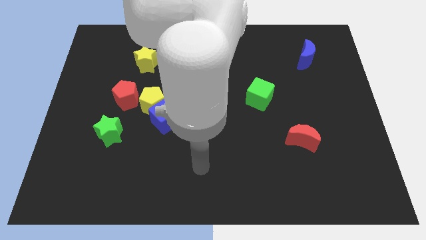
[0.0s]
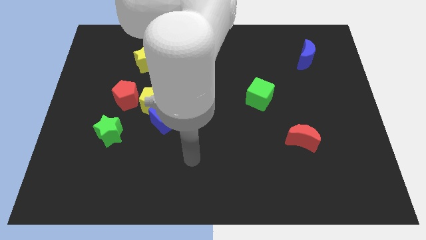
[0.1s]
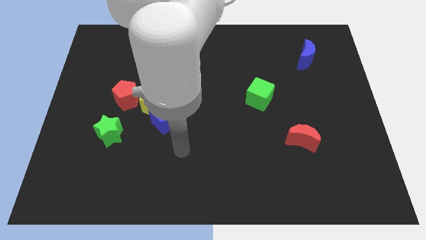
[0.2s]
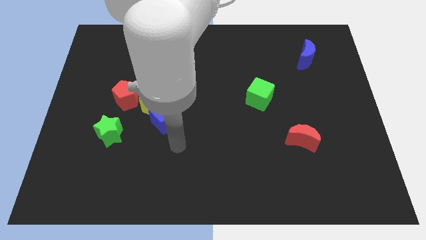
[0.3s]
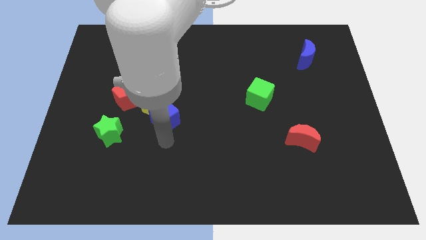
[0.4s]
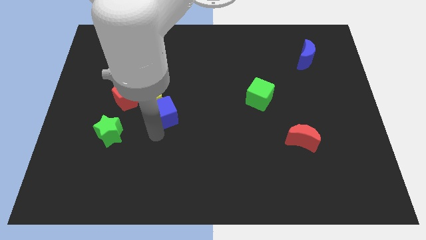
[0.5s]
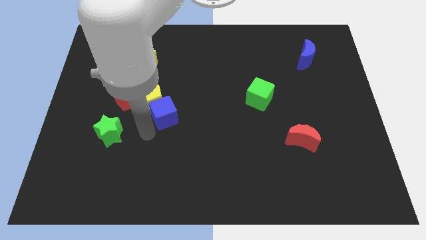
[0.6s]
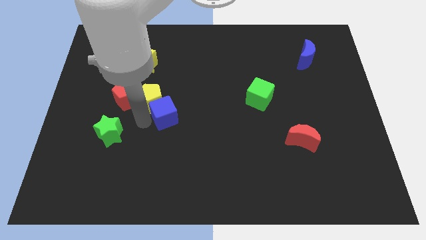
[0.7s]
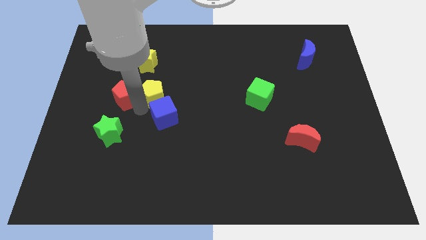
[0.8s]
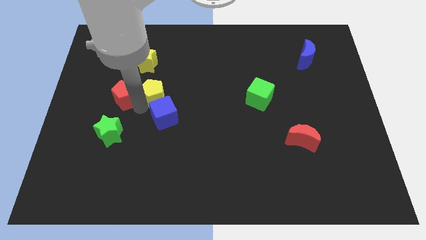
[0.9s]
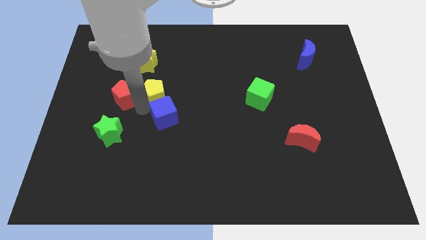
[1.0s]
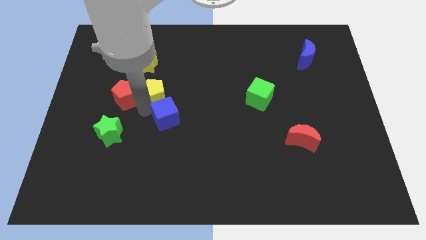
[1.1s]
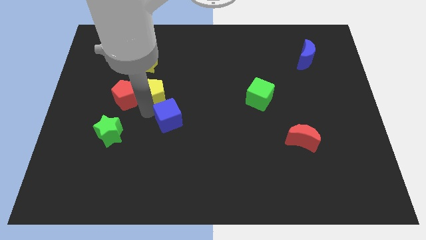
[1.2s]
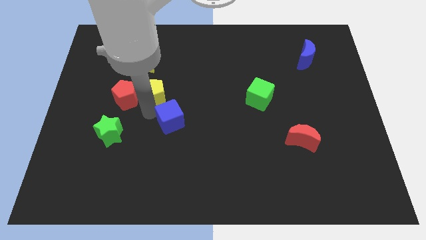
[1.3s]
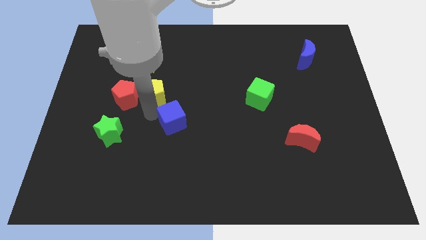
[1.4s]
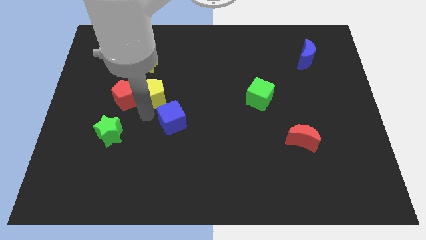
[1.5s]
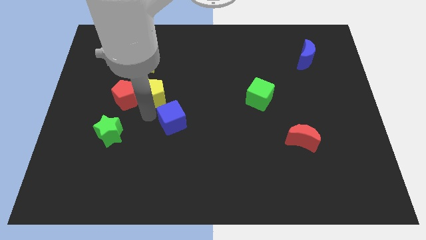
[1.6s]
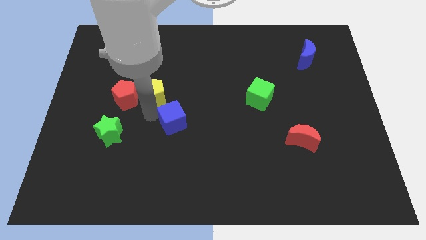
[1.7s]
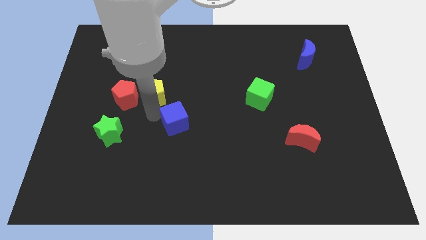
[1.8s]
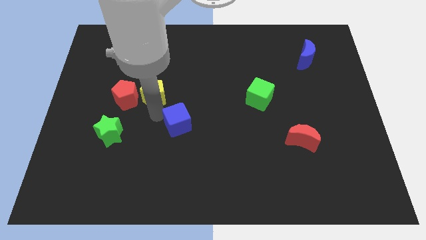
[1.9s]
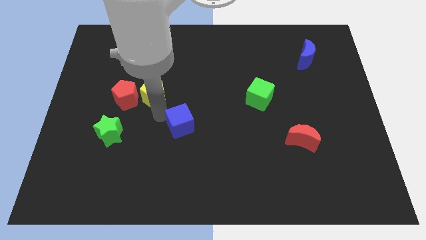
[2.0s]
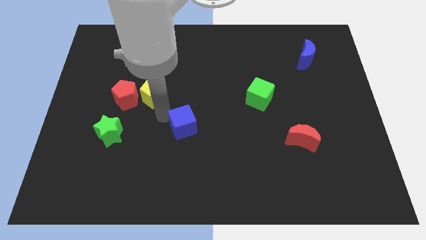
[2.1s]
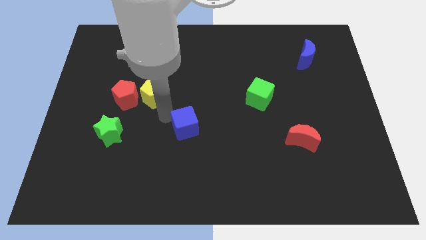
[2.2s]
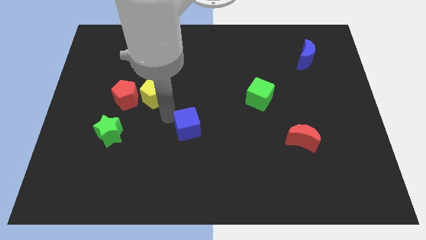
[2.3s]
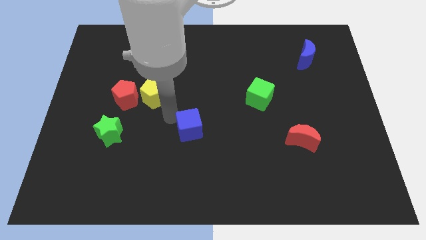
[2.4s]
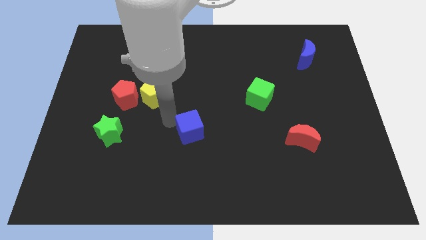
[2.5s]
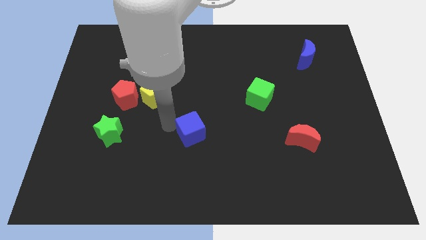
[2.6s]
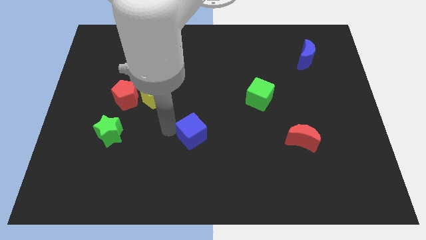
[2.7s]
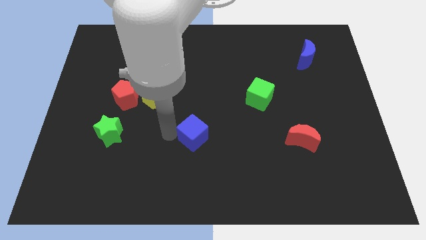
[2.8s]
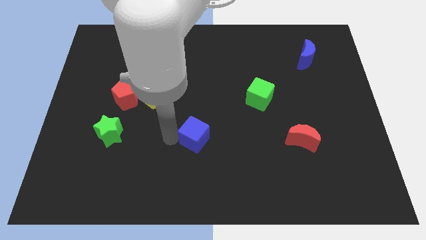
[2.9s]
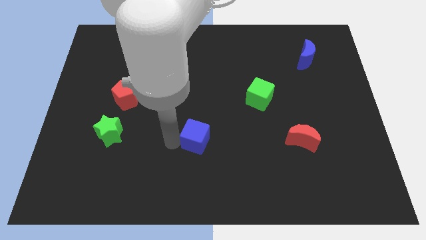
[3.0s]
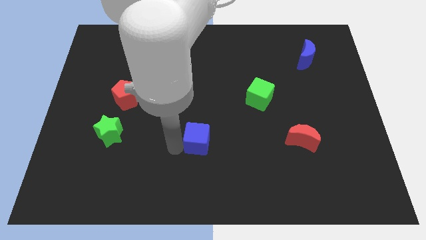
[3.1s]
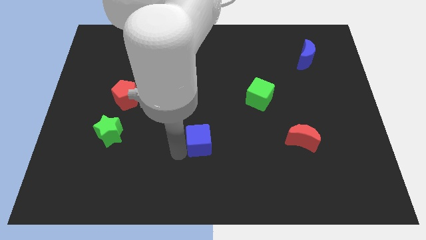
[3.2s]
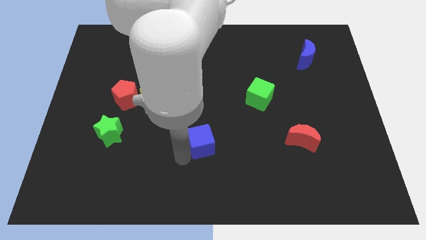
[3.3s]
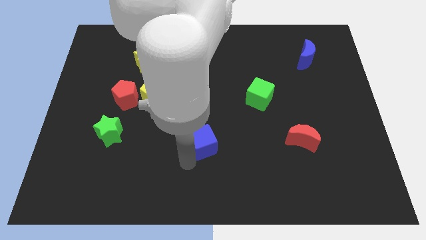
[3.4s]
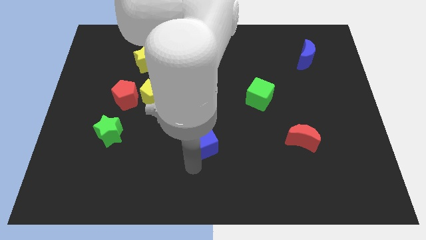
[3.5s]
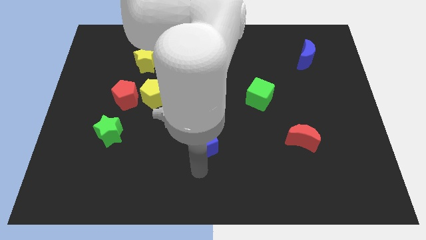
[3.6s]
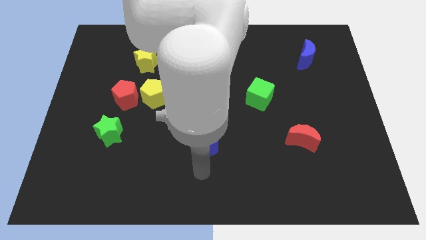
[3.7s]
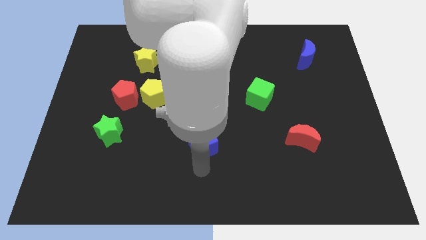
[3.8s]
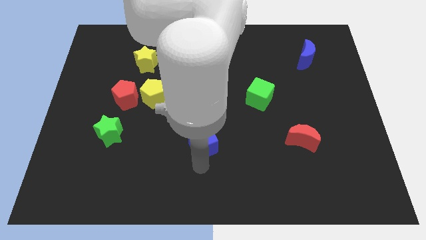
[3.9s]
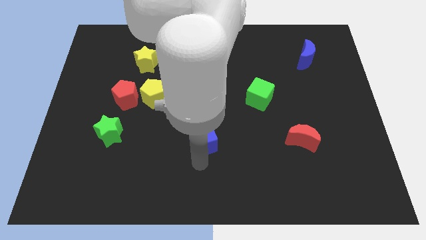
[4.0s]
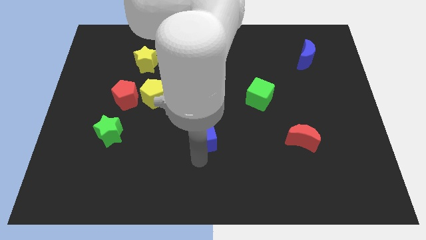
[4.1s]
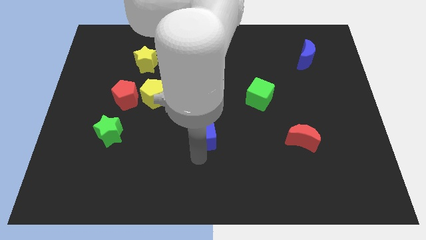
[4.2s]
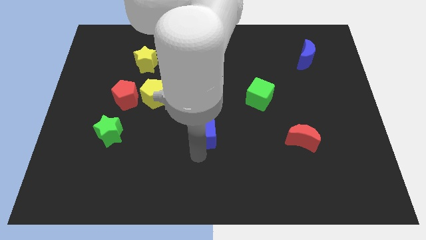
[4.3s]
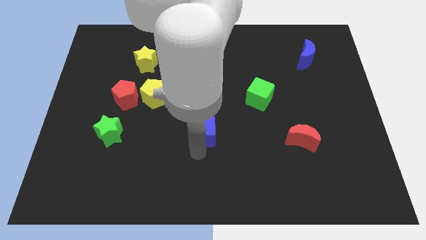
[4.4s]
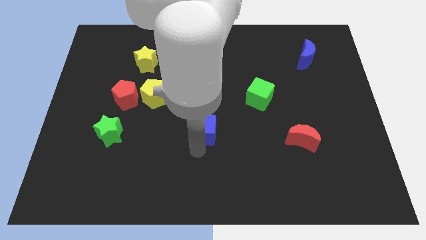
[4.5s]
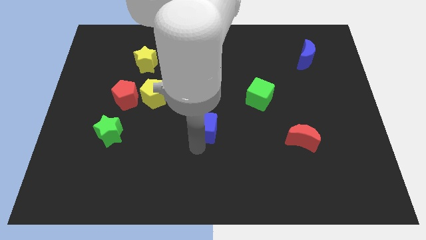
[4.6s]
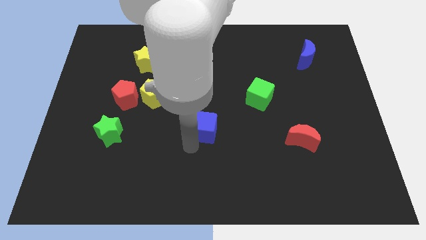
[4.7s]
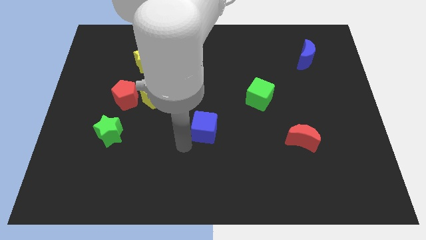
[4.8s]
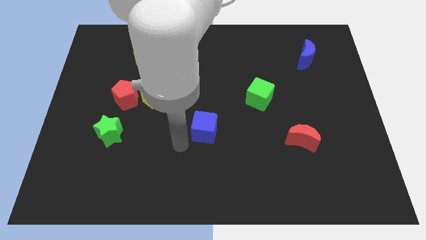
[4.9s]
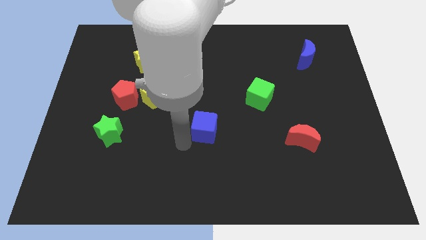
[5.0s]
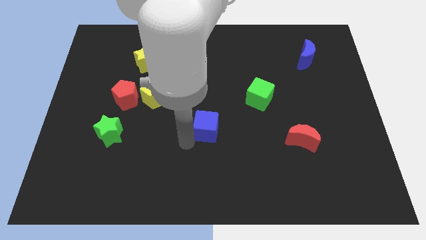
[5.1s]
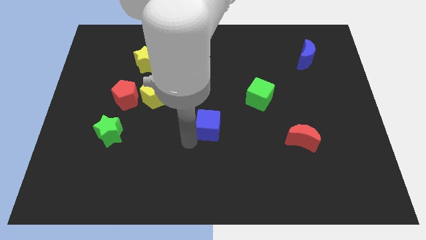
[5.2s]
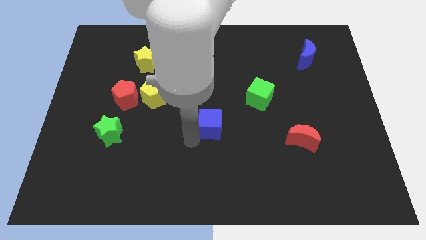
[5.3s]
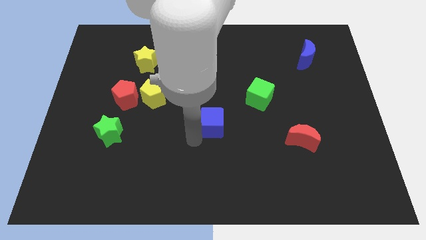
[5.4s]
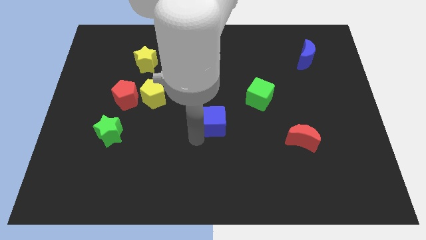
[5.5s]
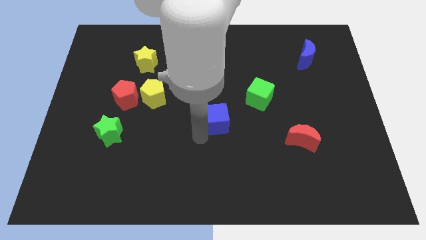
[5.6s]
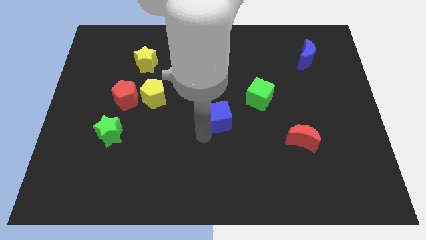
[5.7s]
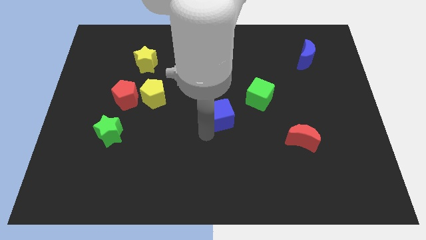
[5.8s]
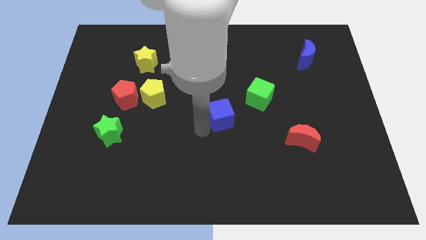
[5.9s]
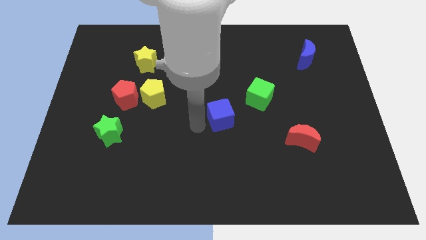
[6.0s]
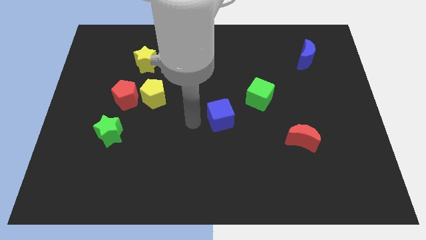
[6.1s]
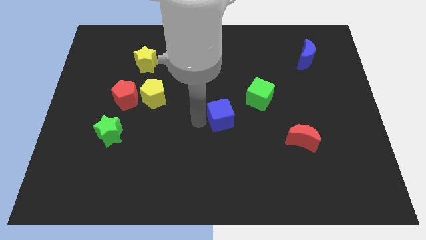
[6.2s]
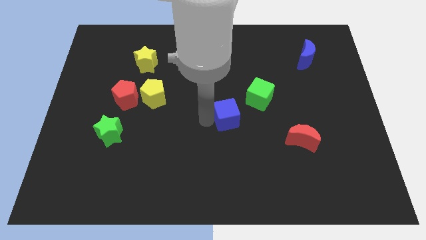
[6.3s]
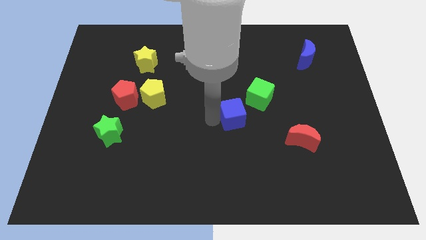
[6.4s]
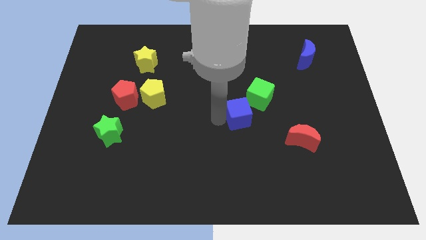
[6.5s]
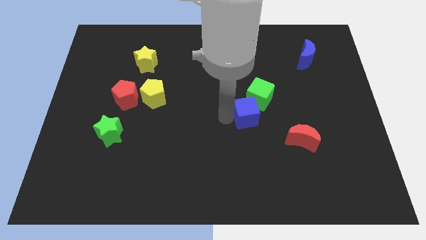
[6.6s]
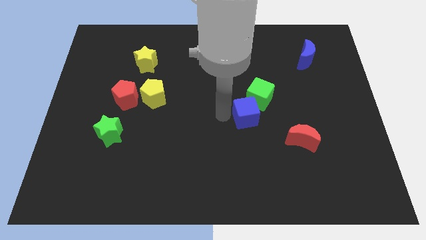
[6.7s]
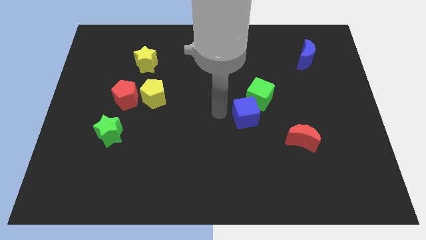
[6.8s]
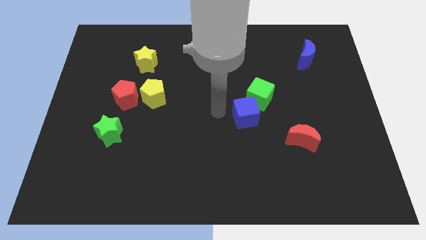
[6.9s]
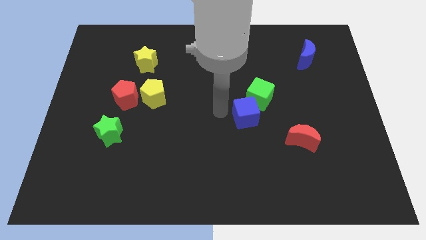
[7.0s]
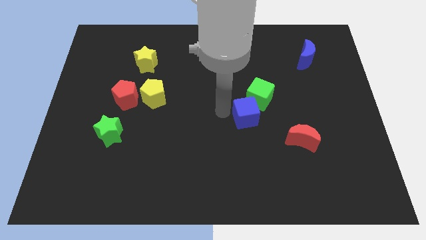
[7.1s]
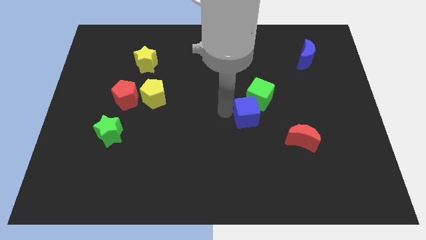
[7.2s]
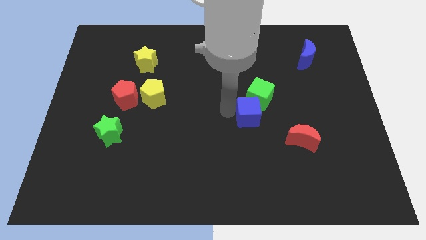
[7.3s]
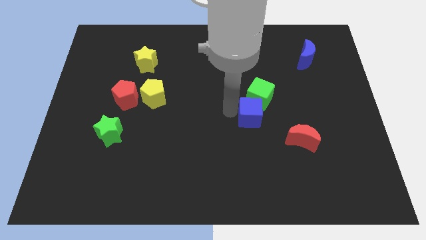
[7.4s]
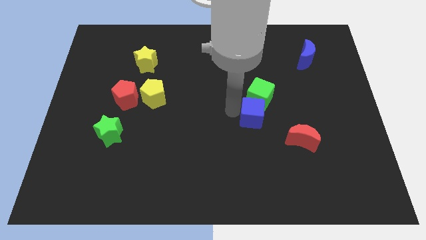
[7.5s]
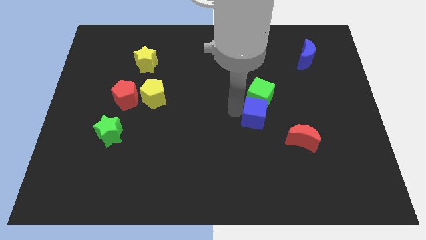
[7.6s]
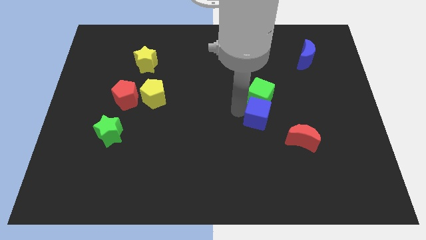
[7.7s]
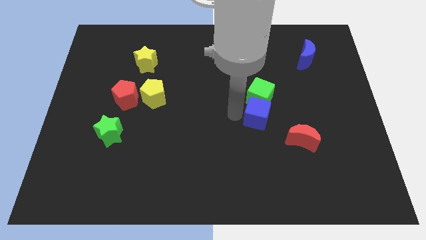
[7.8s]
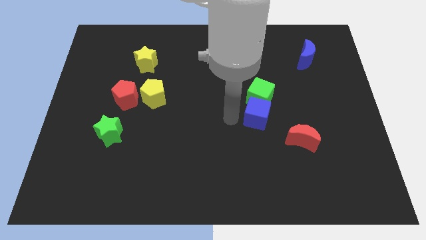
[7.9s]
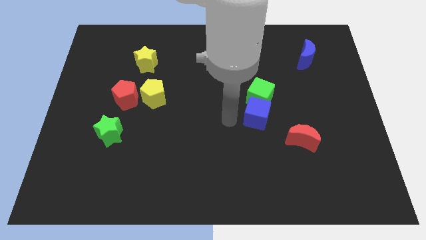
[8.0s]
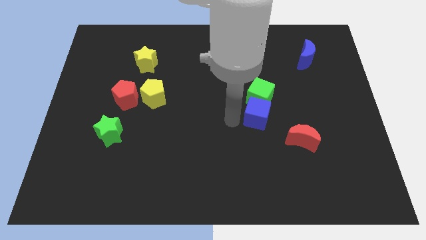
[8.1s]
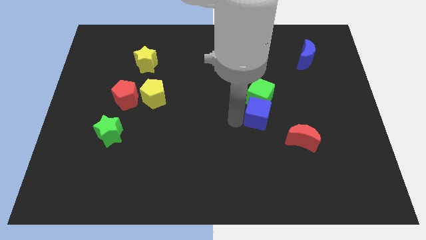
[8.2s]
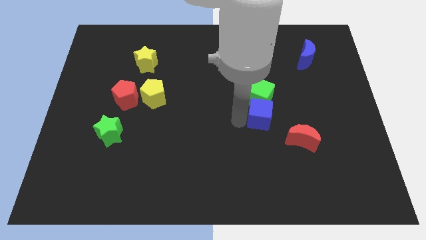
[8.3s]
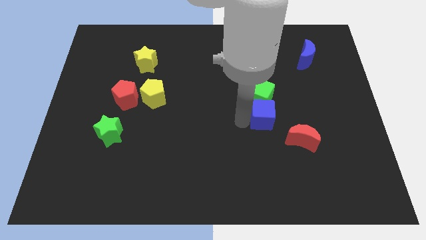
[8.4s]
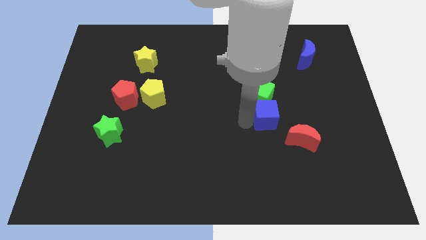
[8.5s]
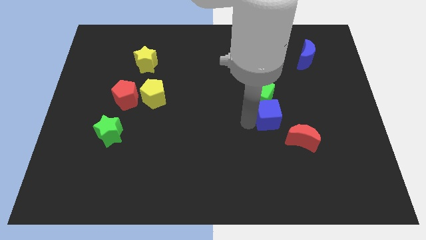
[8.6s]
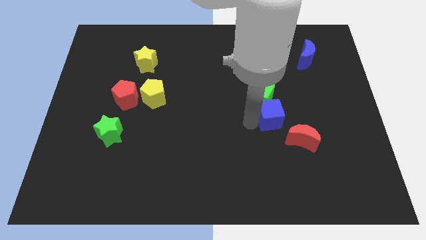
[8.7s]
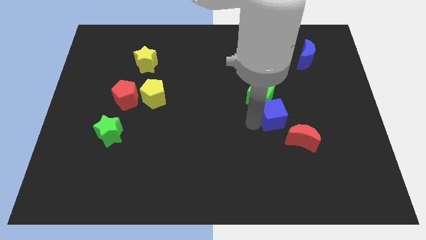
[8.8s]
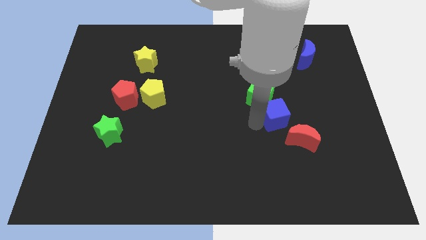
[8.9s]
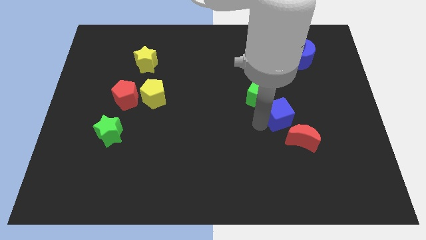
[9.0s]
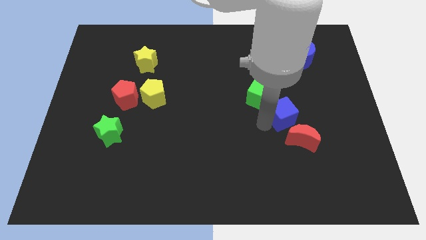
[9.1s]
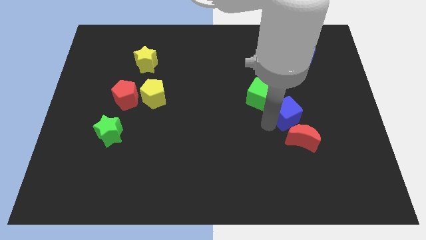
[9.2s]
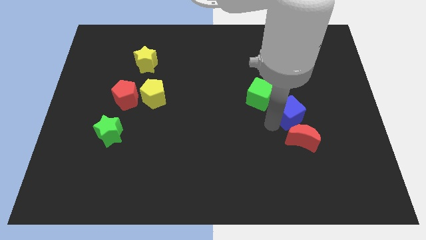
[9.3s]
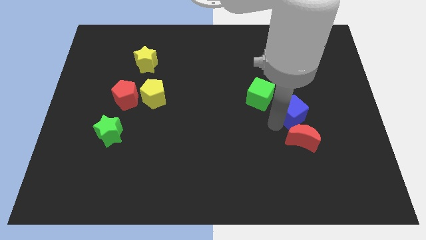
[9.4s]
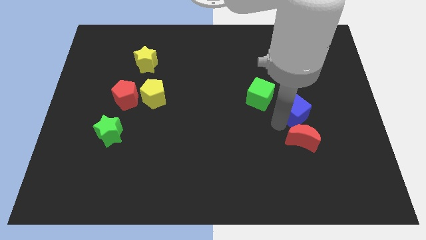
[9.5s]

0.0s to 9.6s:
put the blue cube to the right of the green cube
